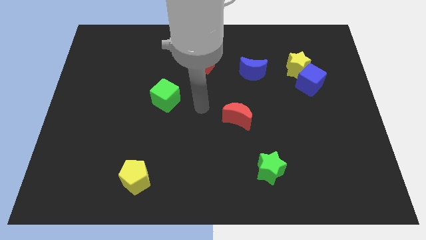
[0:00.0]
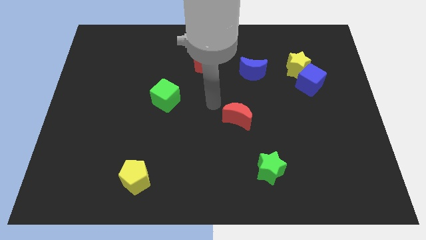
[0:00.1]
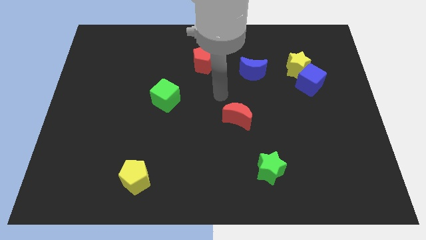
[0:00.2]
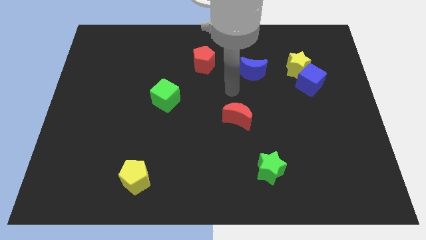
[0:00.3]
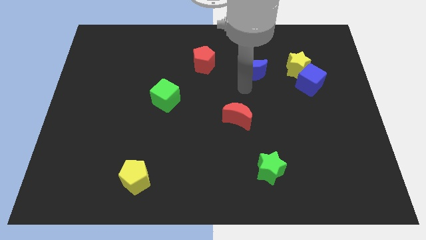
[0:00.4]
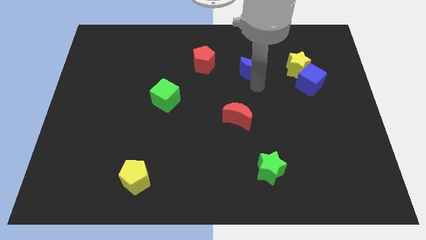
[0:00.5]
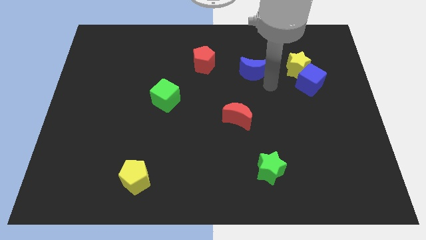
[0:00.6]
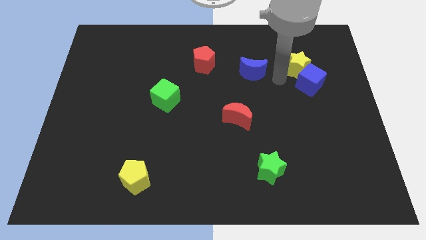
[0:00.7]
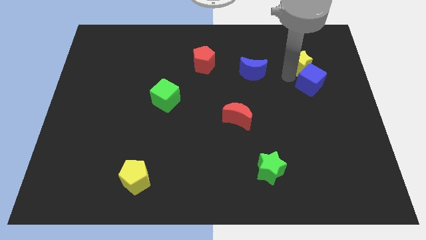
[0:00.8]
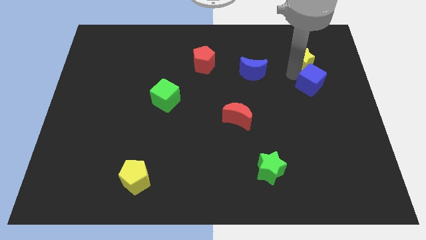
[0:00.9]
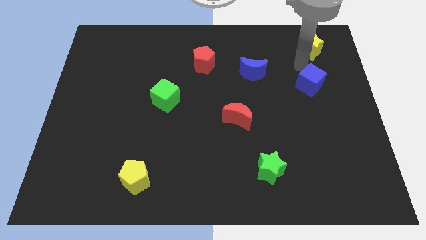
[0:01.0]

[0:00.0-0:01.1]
separate the blue cube from the yellow star

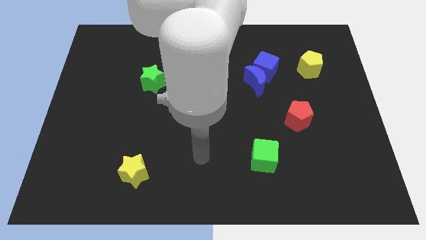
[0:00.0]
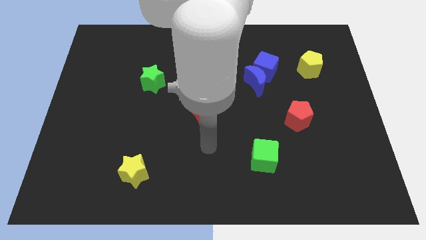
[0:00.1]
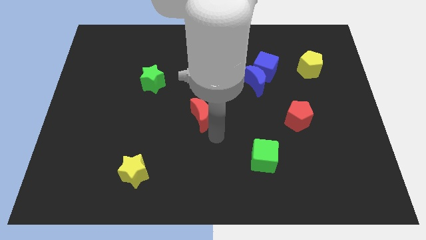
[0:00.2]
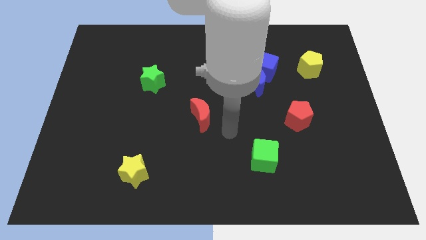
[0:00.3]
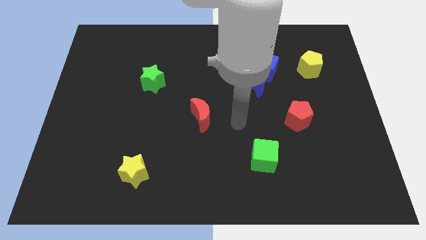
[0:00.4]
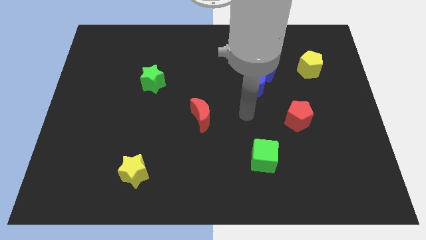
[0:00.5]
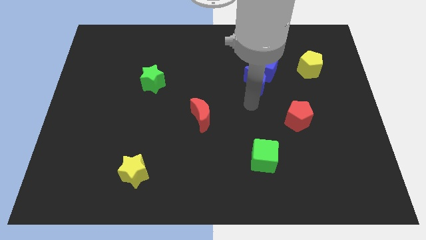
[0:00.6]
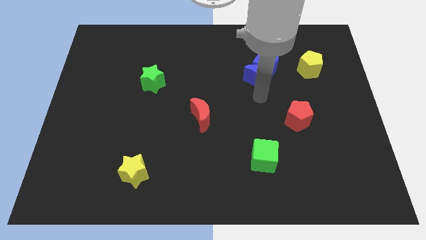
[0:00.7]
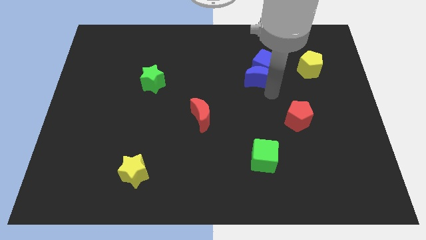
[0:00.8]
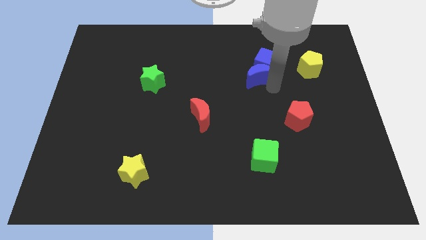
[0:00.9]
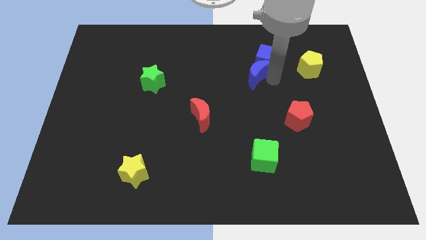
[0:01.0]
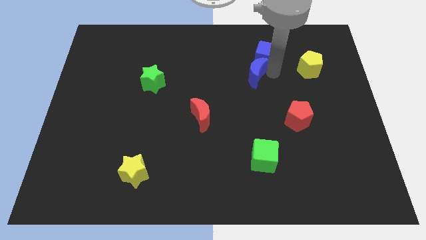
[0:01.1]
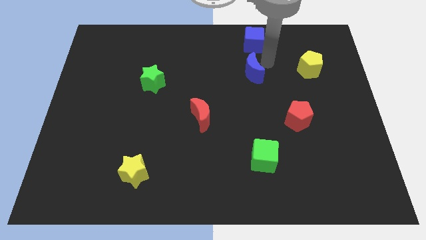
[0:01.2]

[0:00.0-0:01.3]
pull the blue moon apart from the blue cube

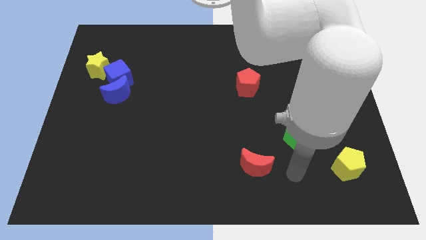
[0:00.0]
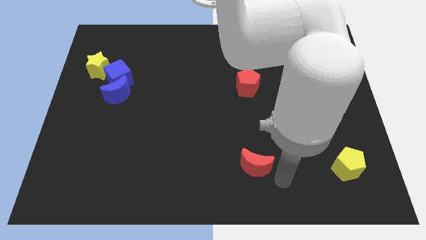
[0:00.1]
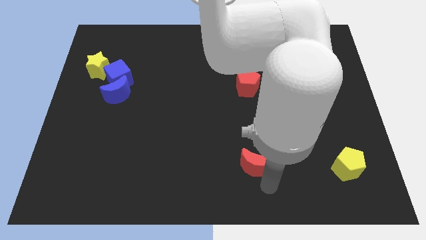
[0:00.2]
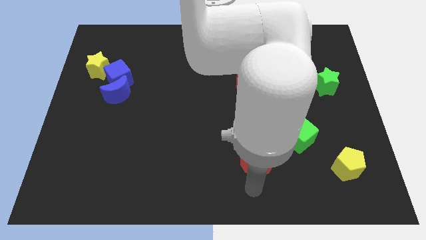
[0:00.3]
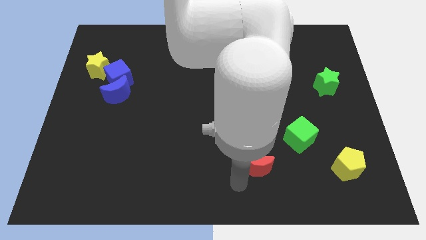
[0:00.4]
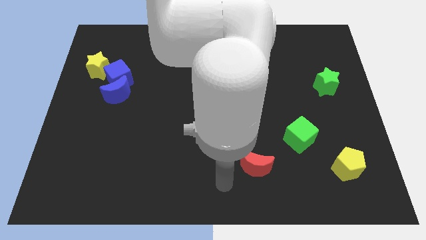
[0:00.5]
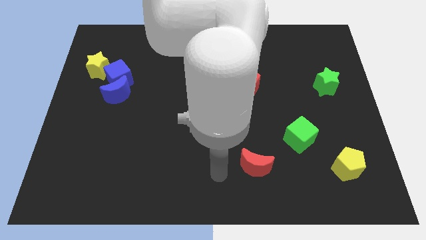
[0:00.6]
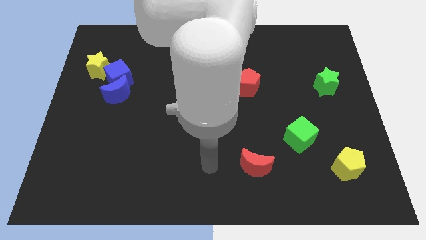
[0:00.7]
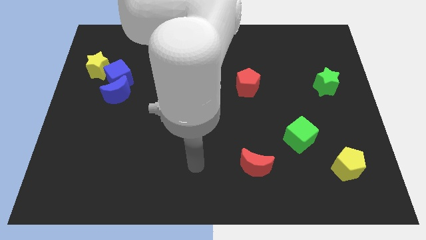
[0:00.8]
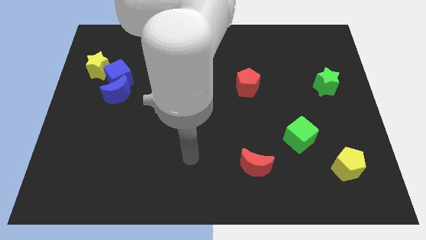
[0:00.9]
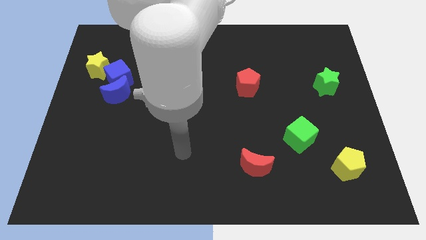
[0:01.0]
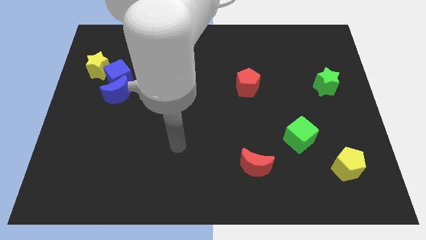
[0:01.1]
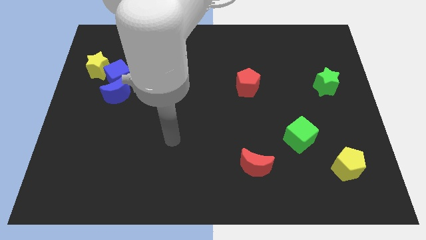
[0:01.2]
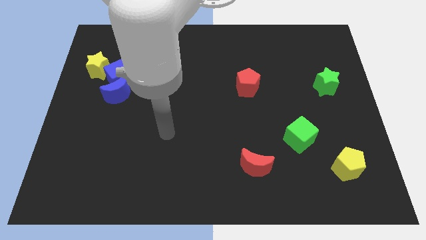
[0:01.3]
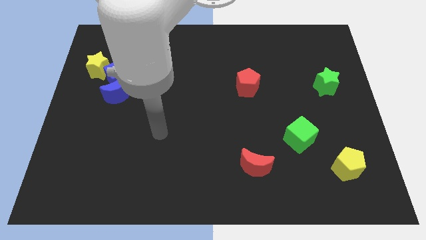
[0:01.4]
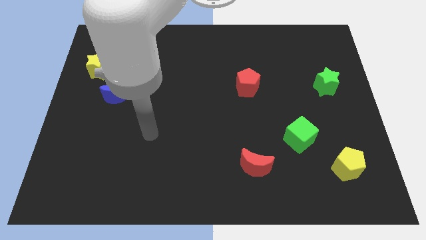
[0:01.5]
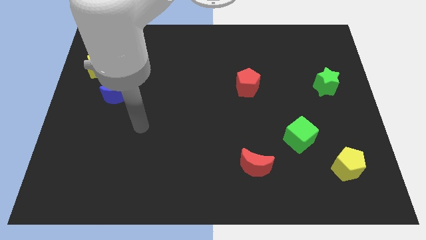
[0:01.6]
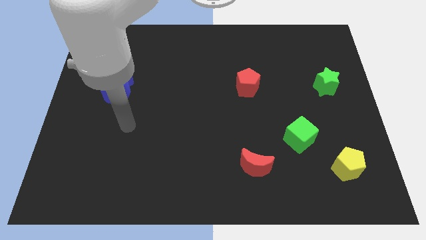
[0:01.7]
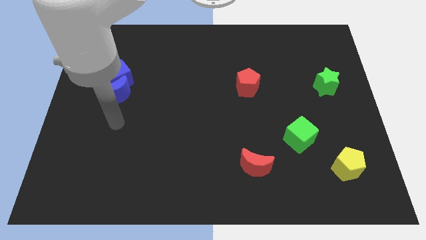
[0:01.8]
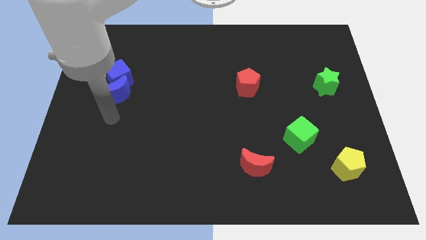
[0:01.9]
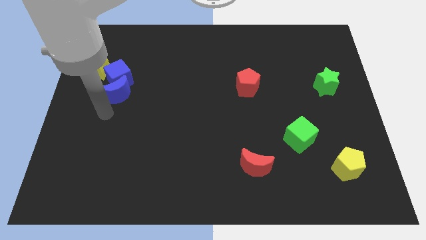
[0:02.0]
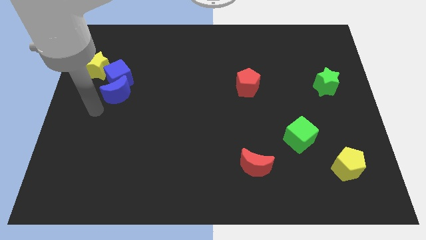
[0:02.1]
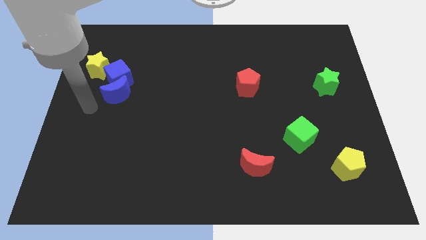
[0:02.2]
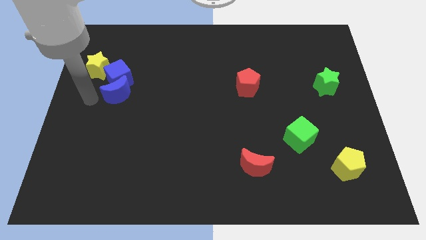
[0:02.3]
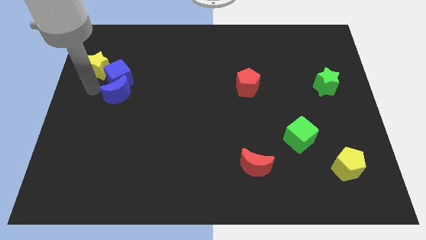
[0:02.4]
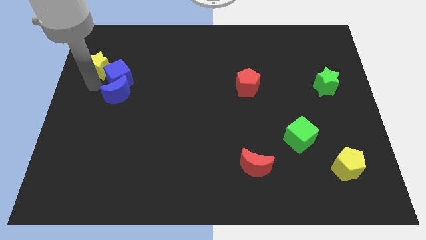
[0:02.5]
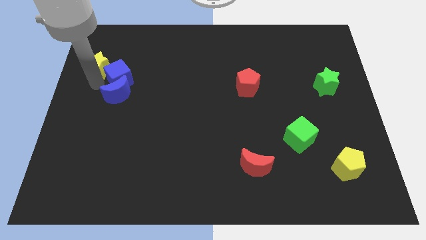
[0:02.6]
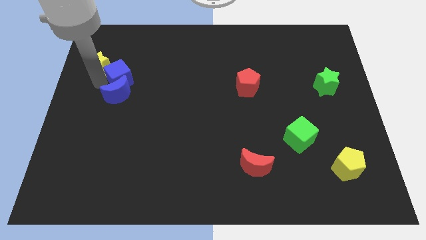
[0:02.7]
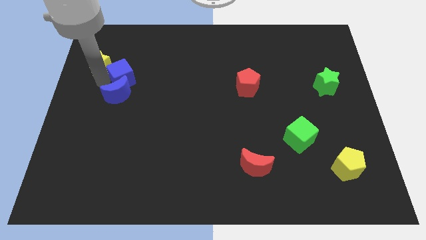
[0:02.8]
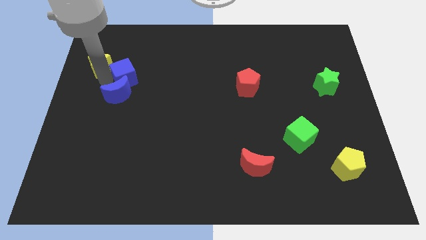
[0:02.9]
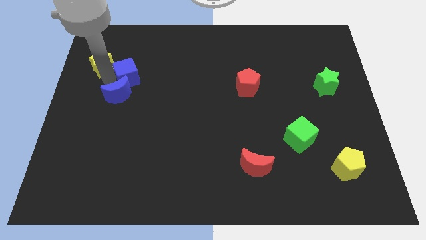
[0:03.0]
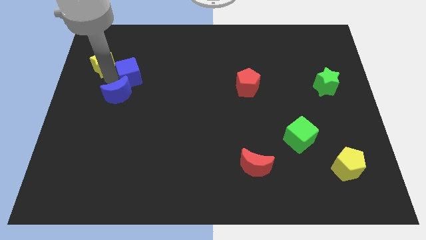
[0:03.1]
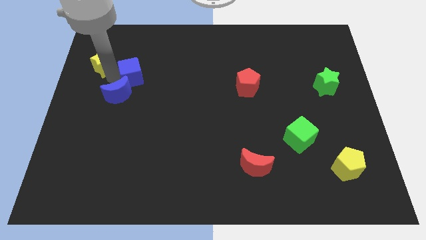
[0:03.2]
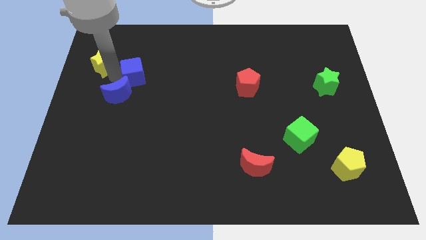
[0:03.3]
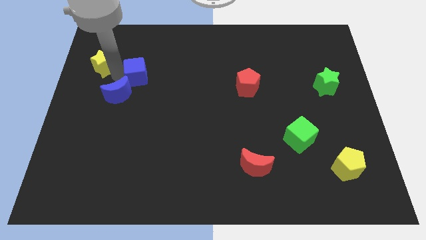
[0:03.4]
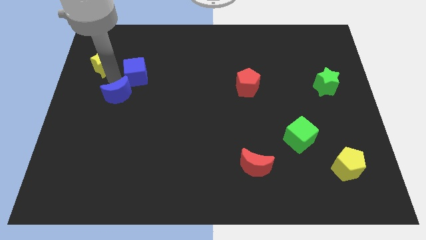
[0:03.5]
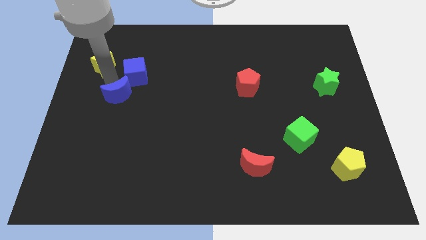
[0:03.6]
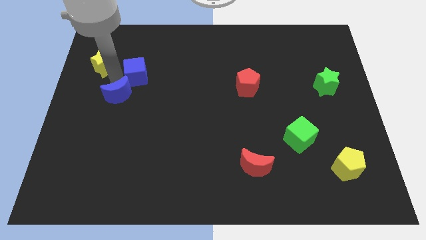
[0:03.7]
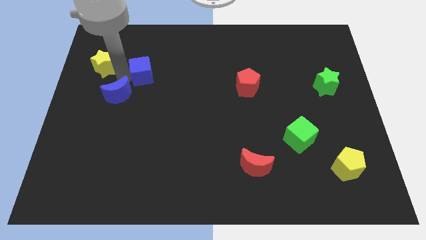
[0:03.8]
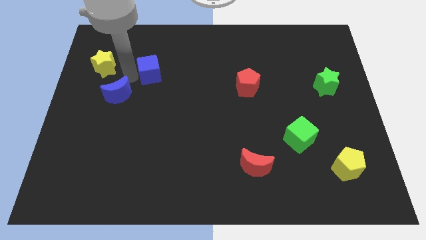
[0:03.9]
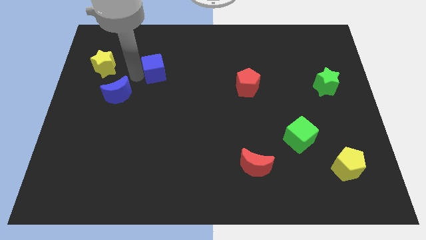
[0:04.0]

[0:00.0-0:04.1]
separate the blue cube from the blue moon and yellow star

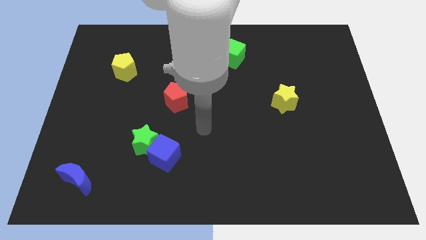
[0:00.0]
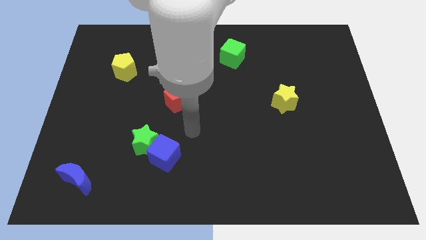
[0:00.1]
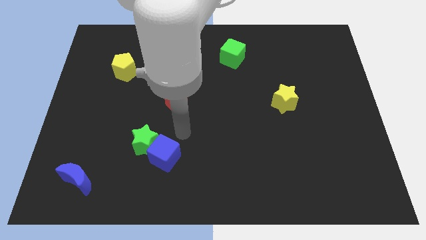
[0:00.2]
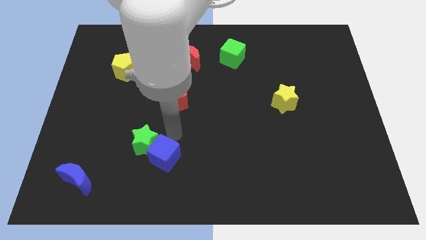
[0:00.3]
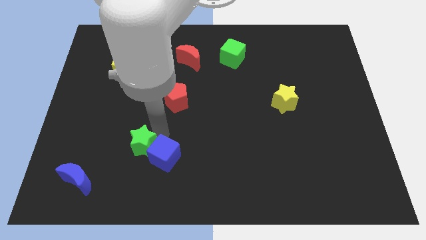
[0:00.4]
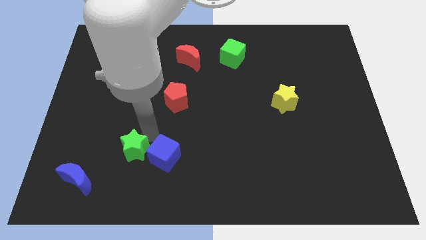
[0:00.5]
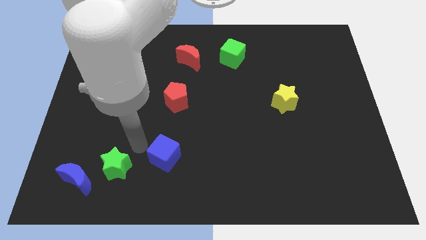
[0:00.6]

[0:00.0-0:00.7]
pull the blue cube apart from the green star

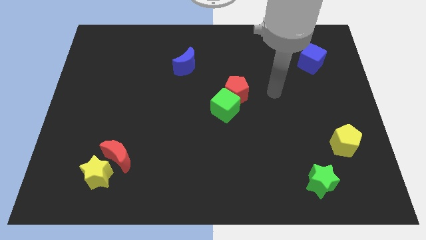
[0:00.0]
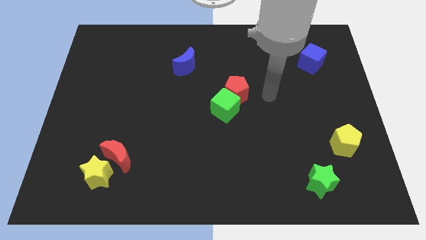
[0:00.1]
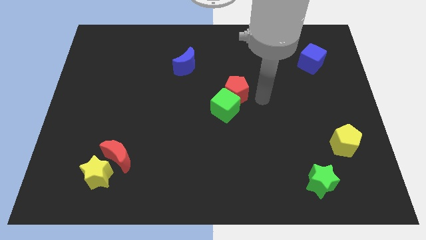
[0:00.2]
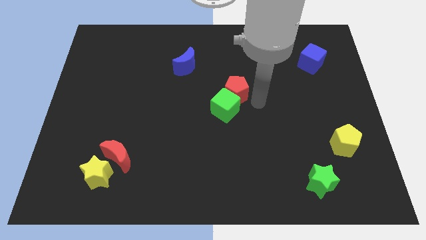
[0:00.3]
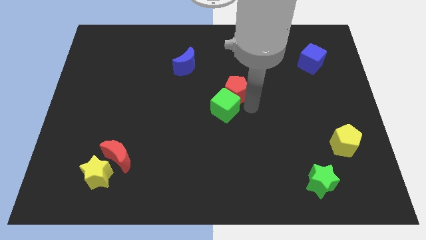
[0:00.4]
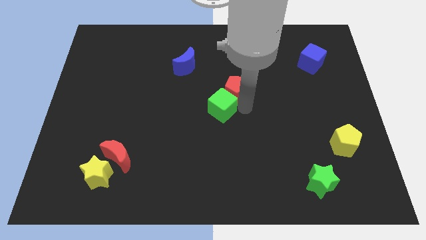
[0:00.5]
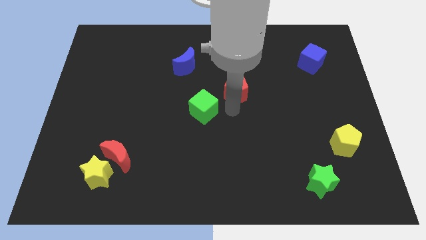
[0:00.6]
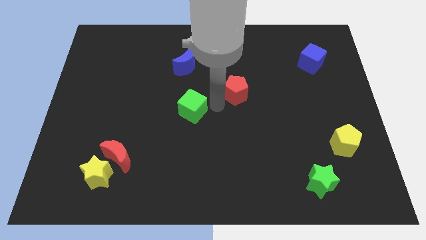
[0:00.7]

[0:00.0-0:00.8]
pull the red pentagon apart from the green cube

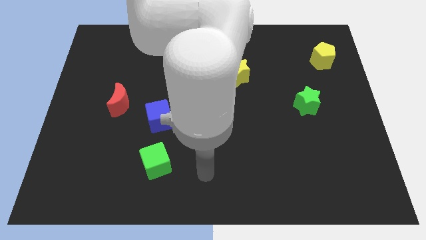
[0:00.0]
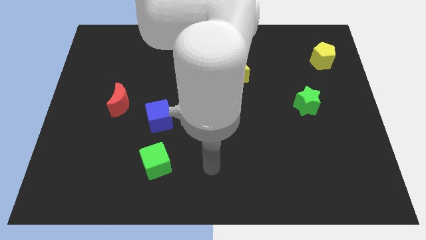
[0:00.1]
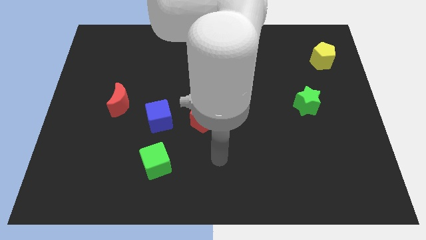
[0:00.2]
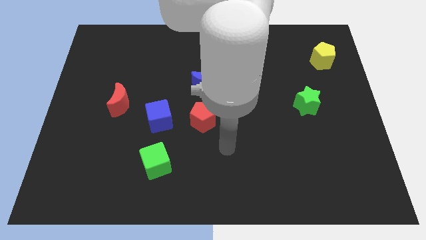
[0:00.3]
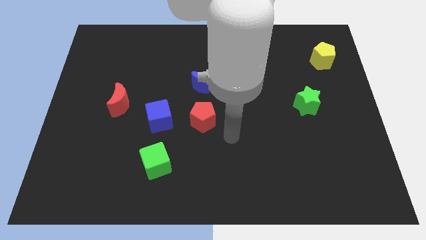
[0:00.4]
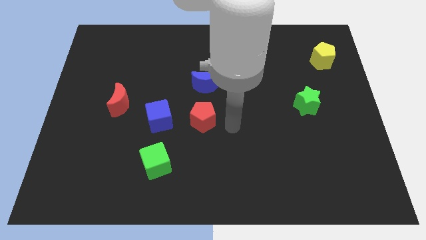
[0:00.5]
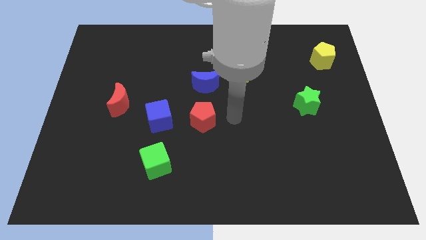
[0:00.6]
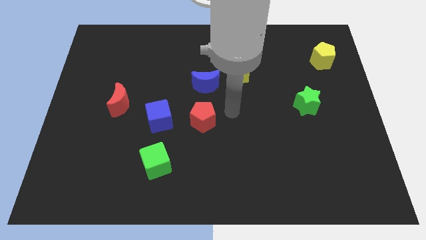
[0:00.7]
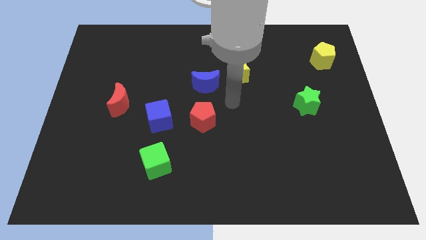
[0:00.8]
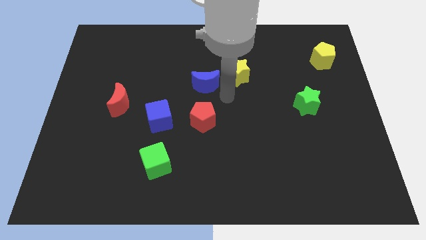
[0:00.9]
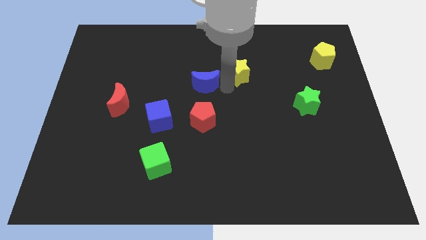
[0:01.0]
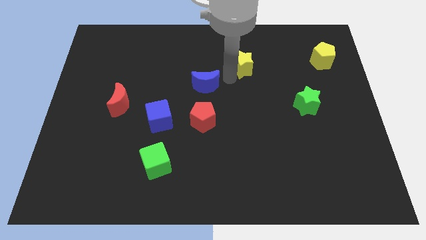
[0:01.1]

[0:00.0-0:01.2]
pull the blue moon apart from the yellow star
